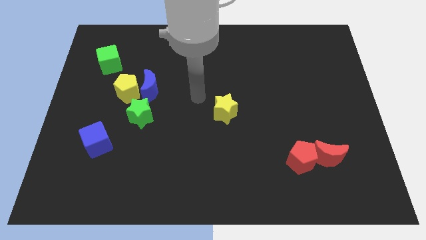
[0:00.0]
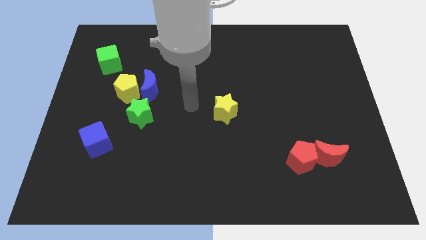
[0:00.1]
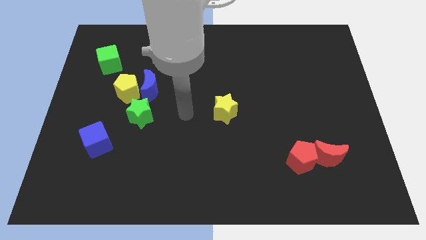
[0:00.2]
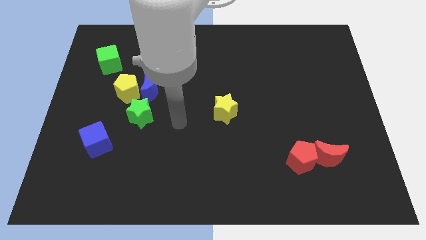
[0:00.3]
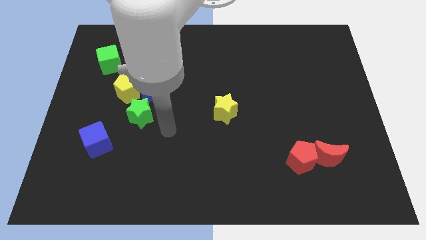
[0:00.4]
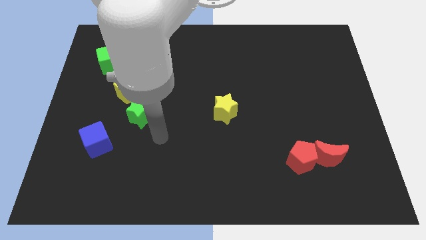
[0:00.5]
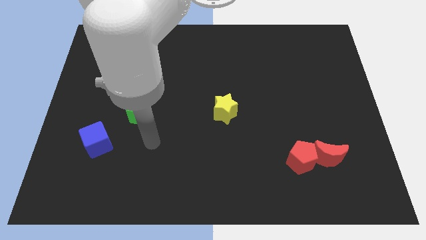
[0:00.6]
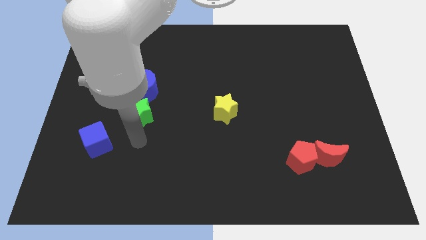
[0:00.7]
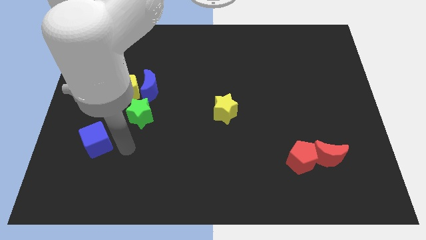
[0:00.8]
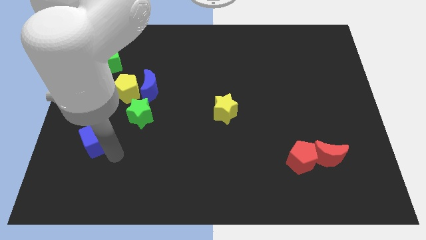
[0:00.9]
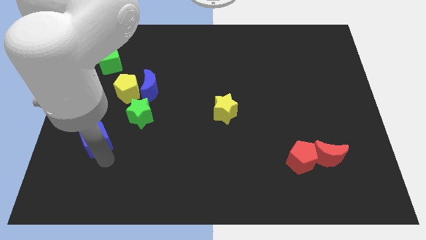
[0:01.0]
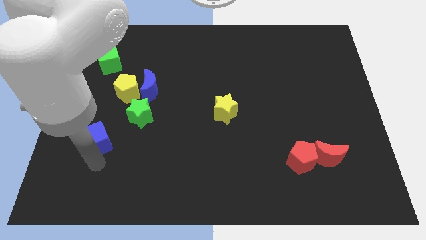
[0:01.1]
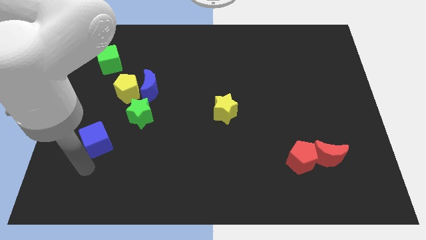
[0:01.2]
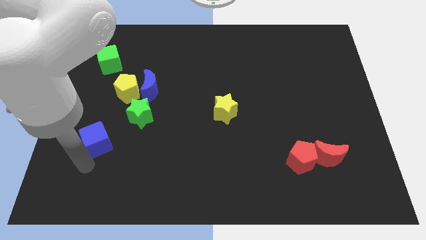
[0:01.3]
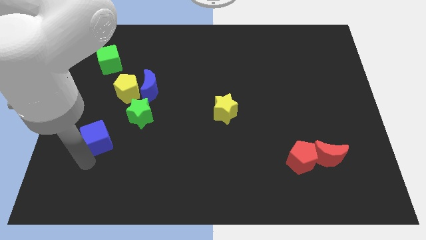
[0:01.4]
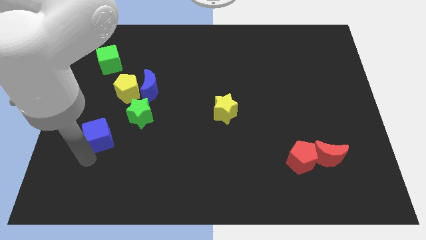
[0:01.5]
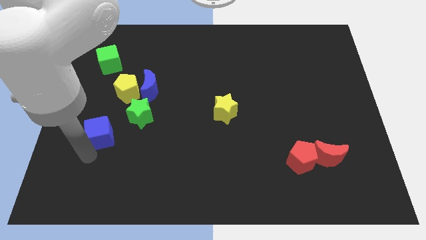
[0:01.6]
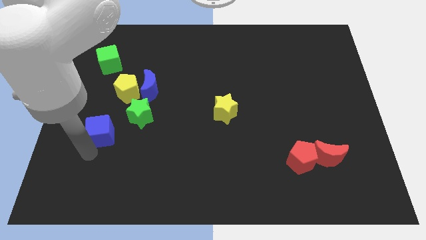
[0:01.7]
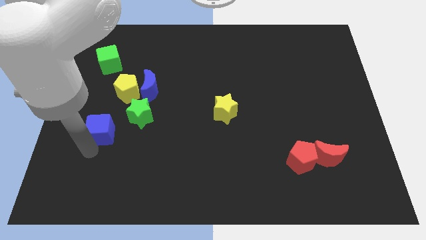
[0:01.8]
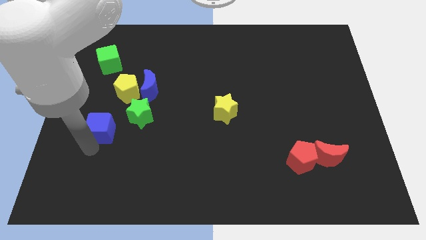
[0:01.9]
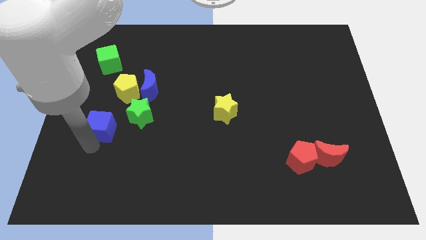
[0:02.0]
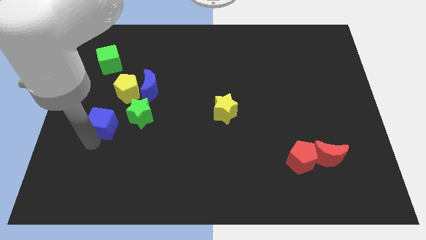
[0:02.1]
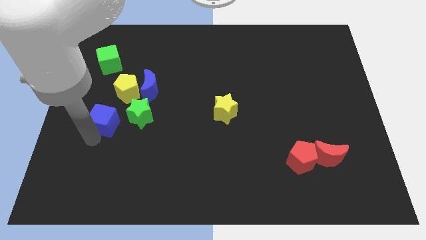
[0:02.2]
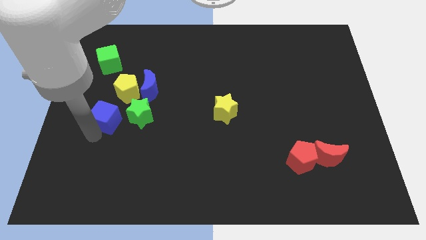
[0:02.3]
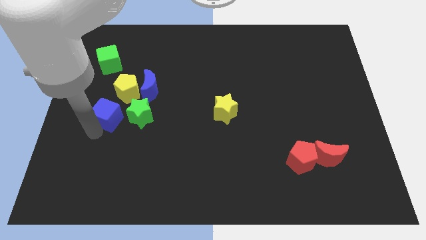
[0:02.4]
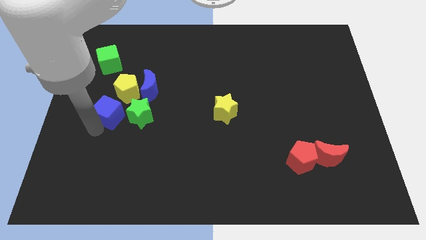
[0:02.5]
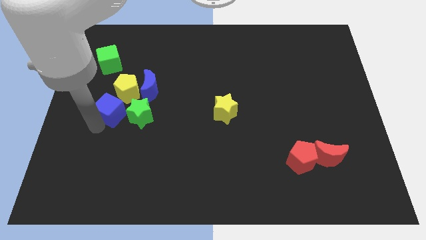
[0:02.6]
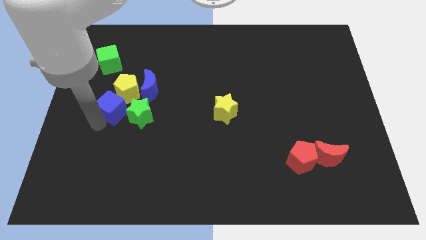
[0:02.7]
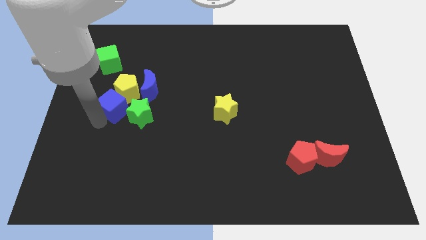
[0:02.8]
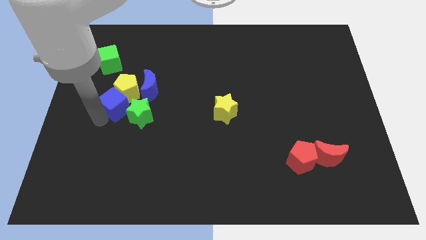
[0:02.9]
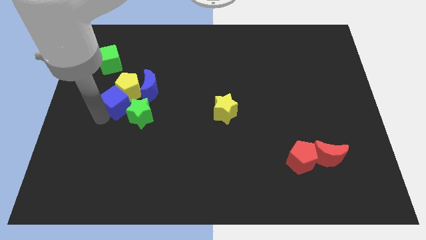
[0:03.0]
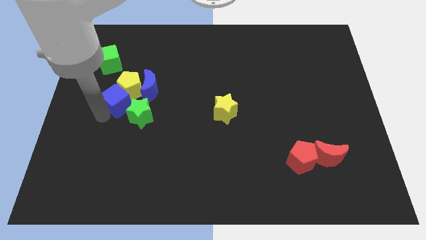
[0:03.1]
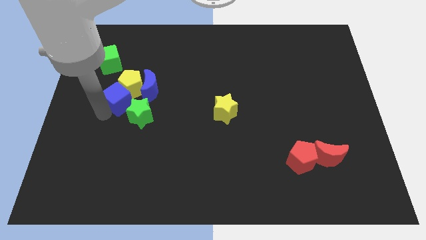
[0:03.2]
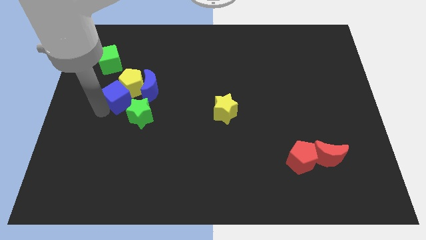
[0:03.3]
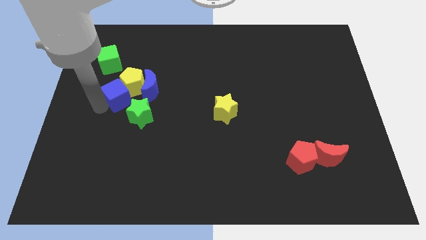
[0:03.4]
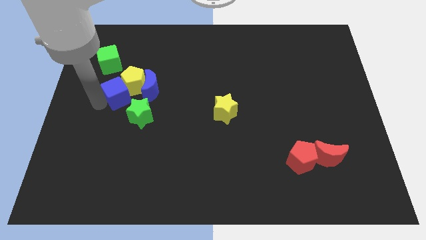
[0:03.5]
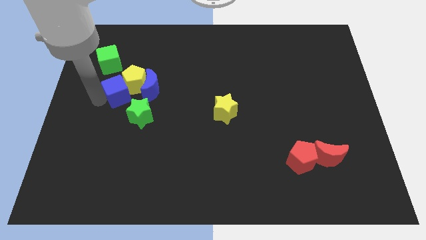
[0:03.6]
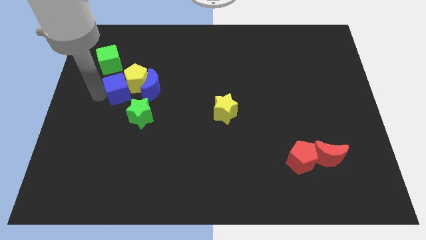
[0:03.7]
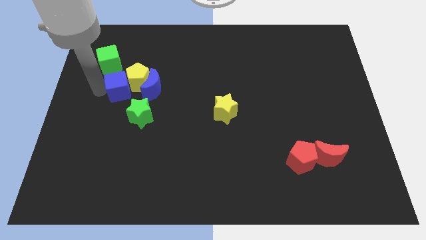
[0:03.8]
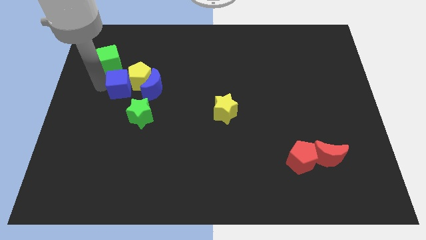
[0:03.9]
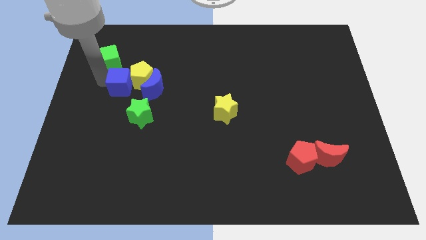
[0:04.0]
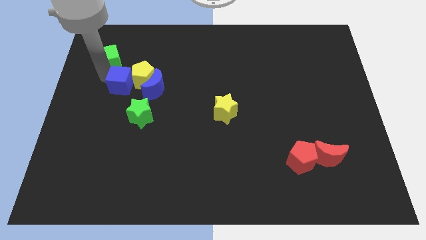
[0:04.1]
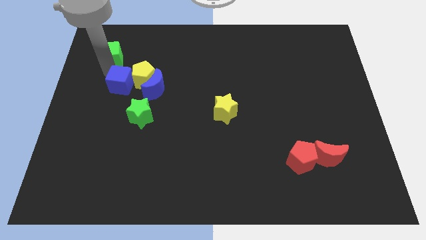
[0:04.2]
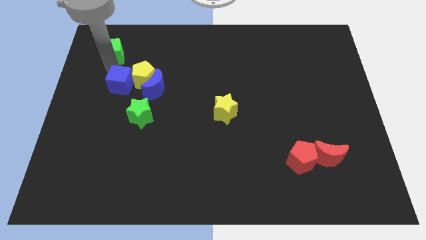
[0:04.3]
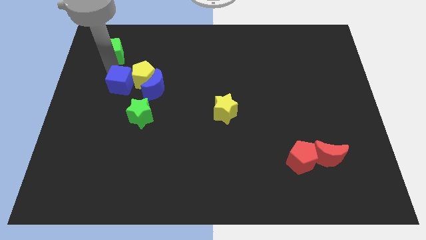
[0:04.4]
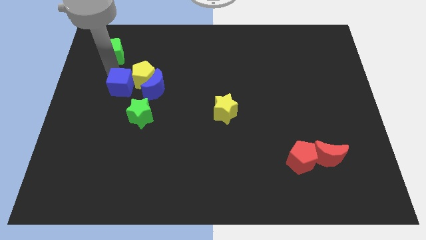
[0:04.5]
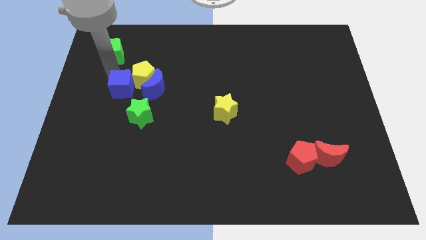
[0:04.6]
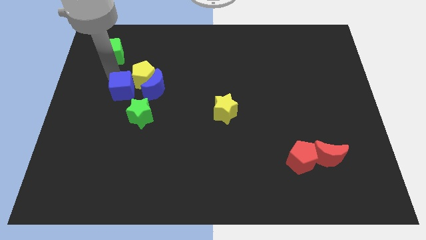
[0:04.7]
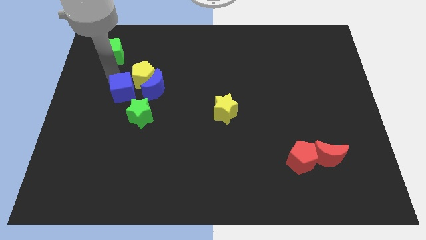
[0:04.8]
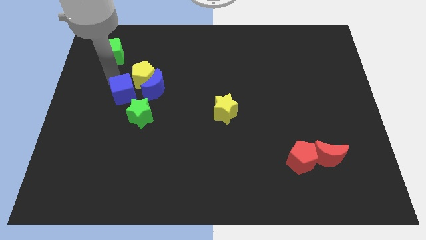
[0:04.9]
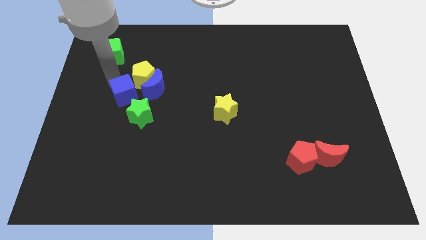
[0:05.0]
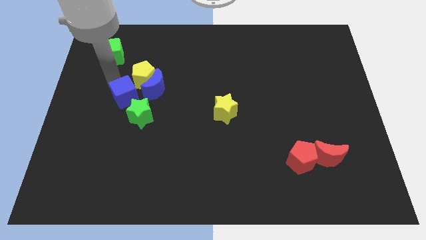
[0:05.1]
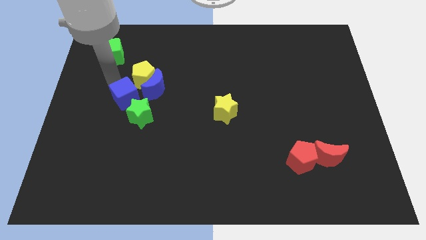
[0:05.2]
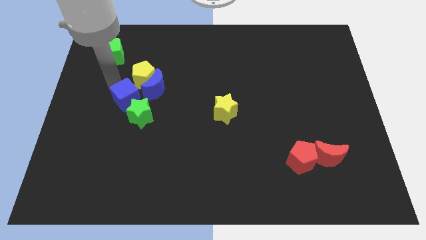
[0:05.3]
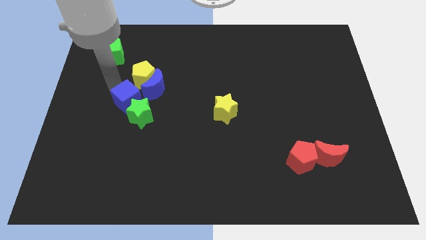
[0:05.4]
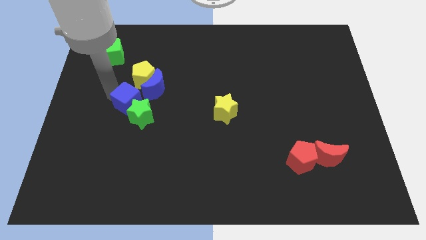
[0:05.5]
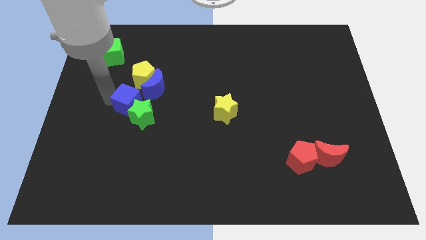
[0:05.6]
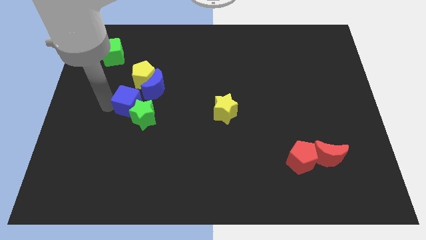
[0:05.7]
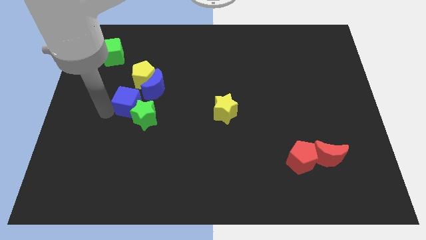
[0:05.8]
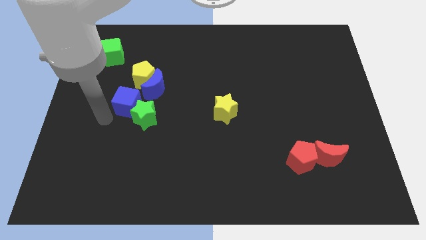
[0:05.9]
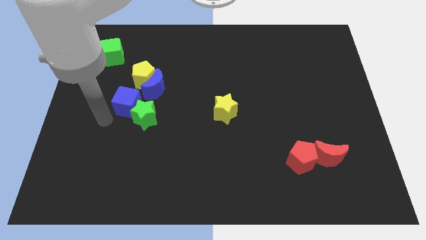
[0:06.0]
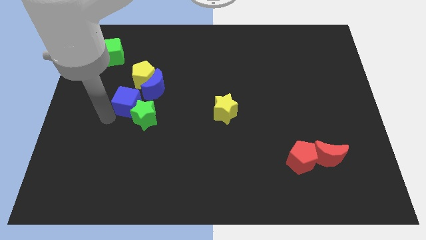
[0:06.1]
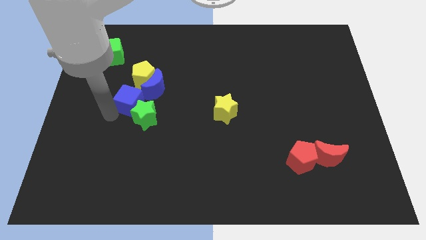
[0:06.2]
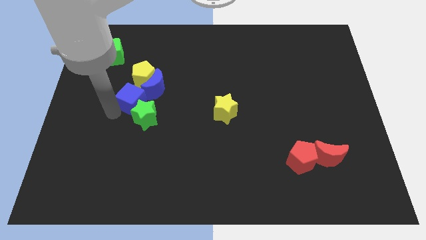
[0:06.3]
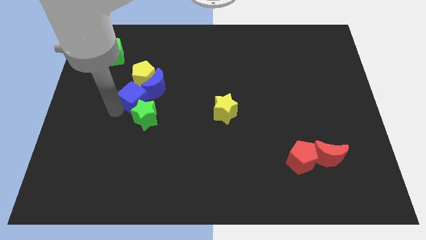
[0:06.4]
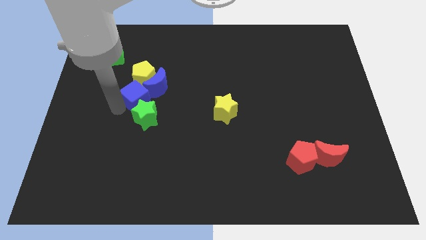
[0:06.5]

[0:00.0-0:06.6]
slide the blue cube next to the blue moon
